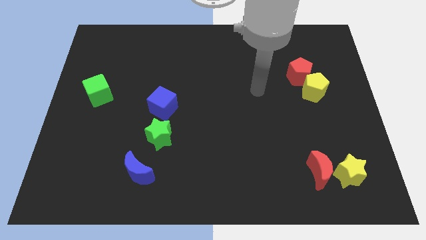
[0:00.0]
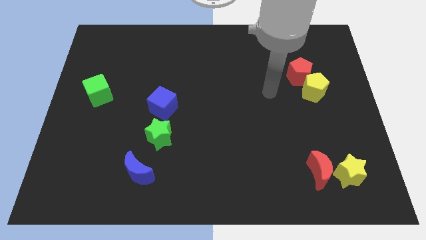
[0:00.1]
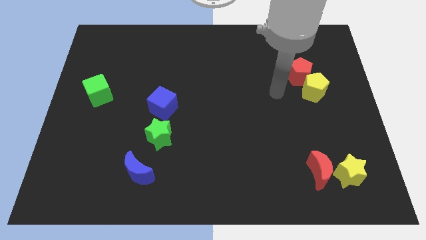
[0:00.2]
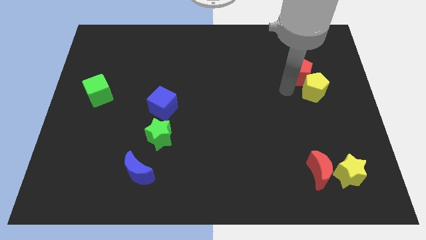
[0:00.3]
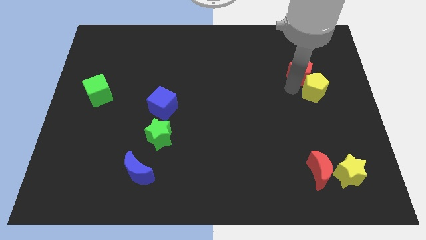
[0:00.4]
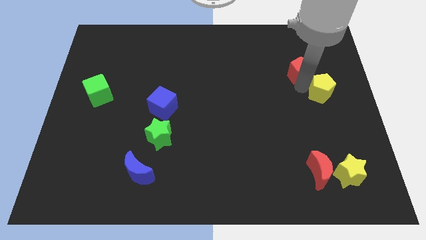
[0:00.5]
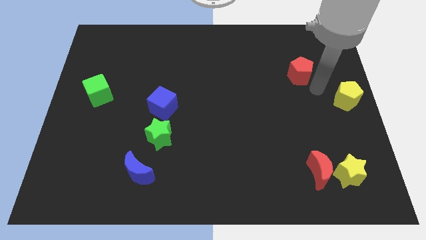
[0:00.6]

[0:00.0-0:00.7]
move the red pentagon away from the yellow pentagon

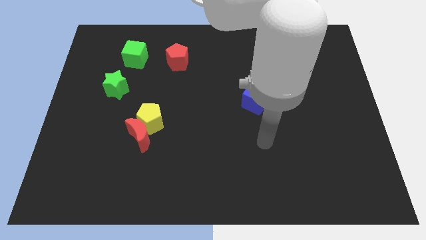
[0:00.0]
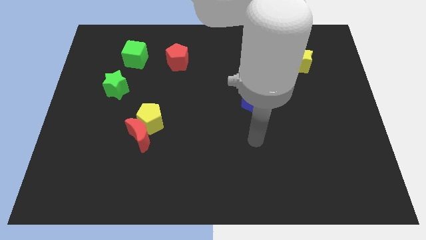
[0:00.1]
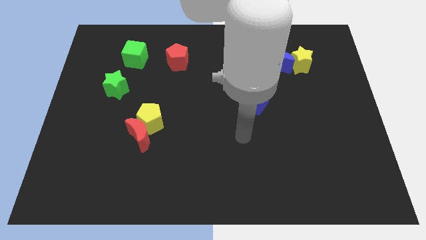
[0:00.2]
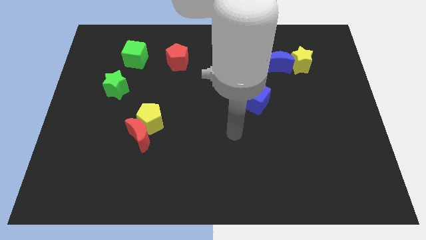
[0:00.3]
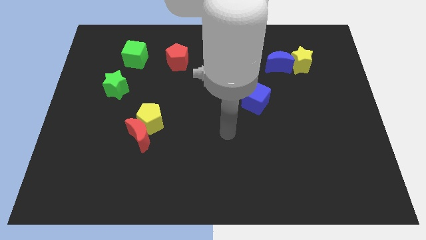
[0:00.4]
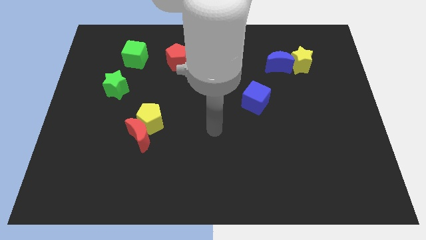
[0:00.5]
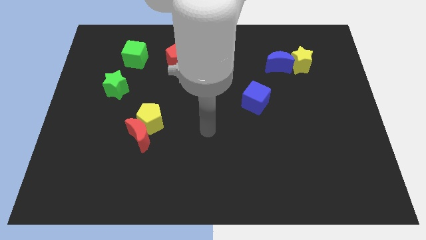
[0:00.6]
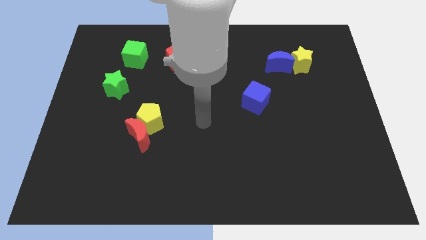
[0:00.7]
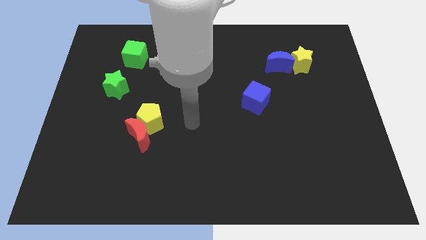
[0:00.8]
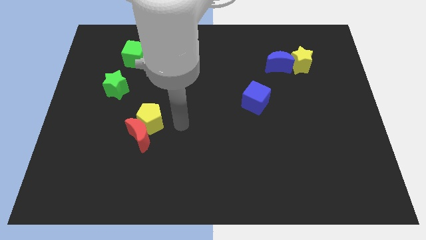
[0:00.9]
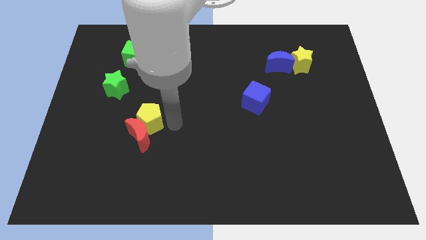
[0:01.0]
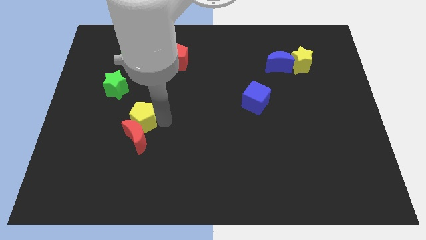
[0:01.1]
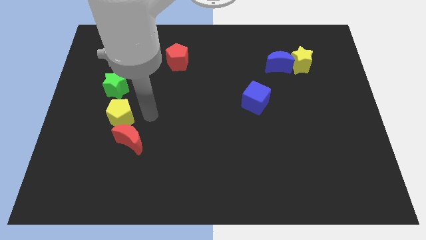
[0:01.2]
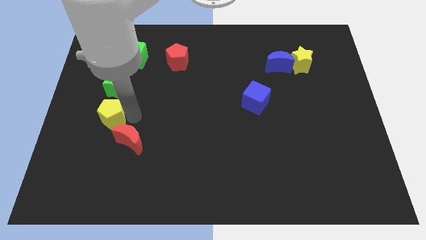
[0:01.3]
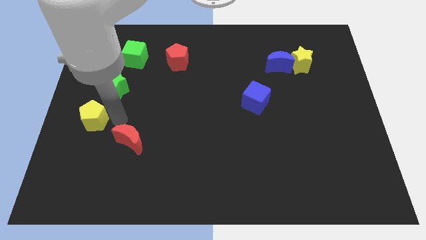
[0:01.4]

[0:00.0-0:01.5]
pull the red moon apart from the yellow pentagon

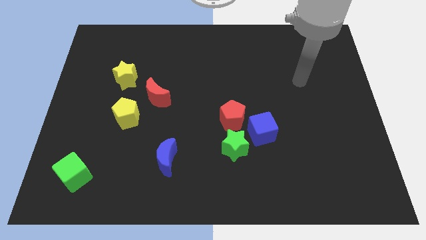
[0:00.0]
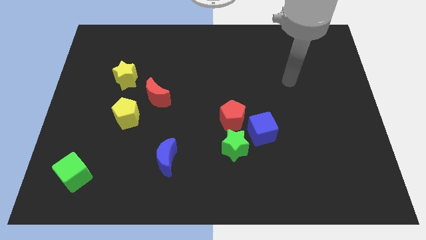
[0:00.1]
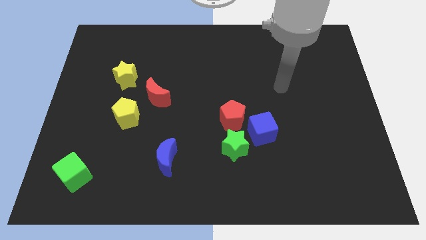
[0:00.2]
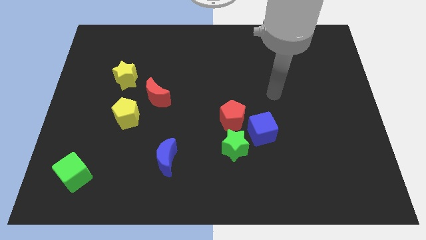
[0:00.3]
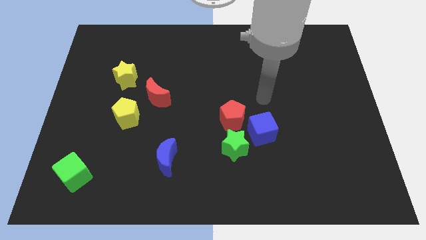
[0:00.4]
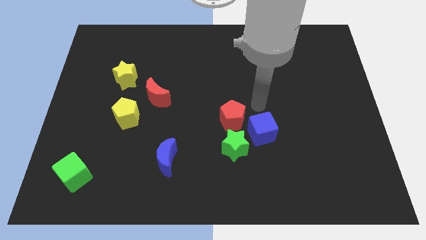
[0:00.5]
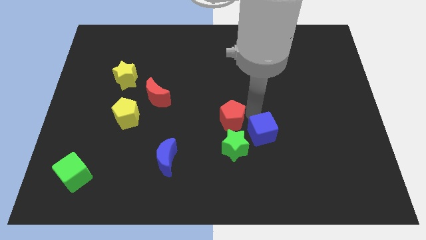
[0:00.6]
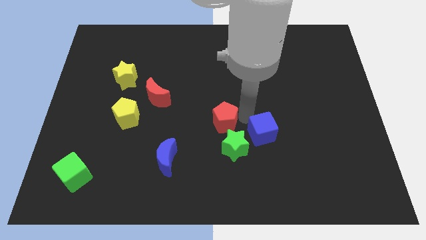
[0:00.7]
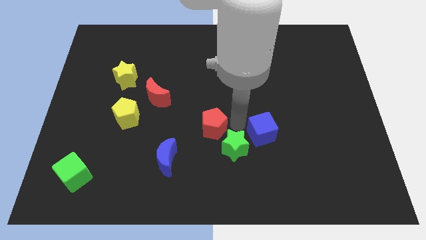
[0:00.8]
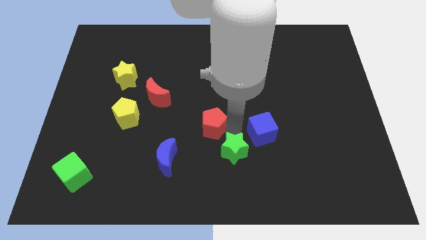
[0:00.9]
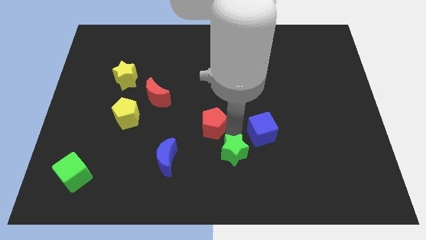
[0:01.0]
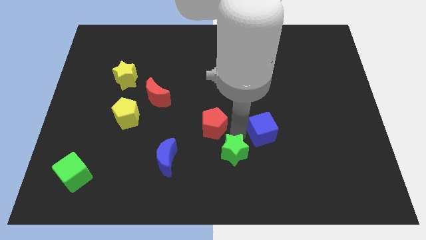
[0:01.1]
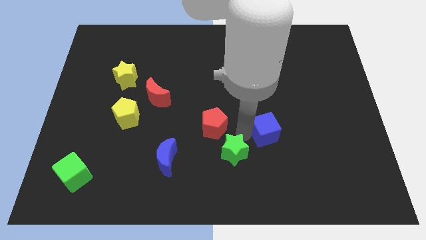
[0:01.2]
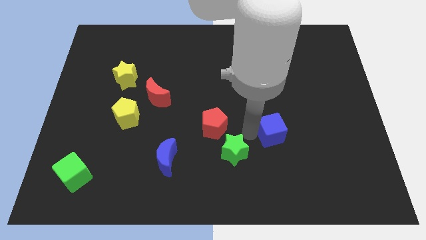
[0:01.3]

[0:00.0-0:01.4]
pull the blue cube apart from the green star and red pentagon

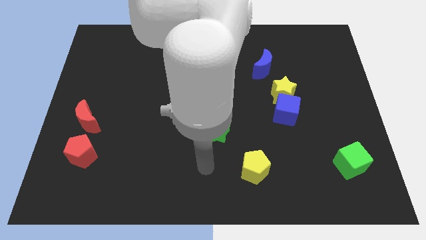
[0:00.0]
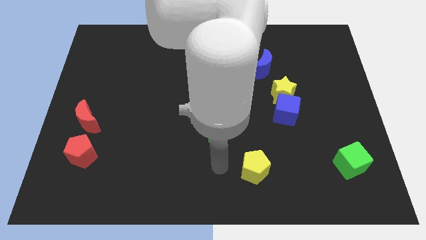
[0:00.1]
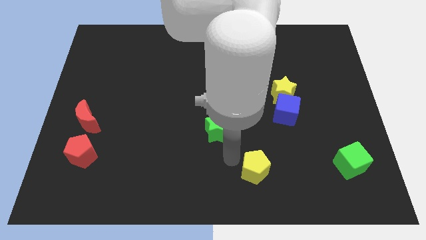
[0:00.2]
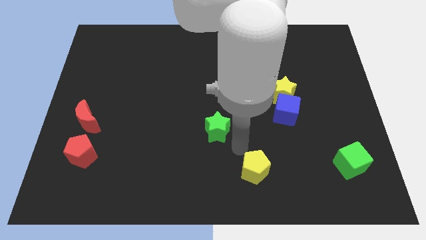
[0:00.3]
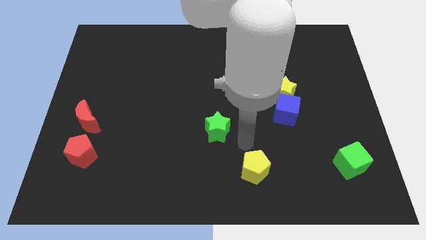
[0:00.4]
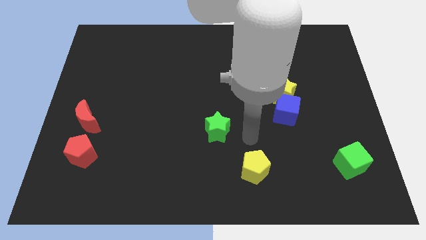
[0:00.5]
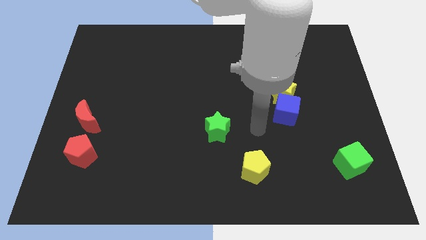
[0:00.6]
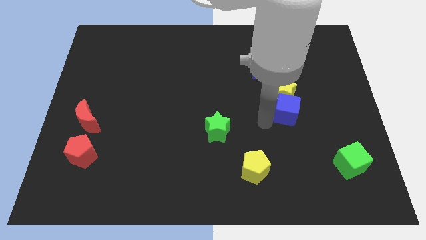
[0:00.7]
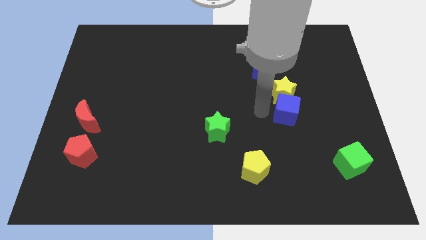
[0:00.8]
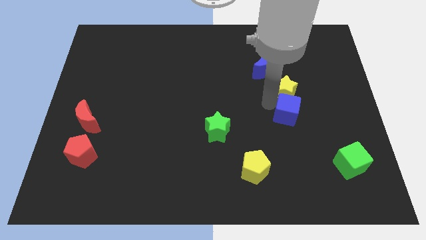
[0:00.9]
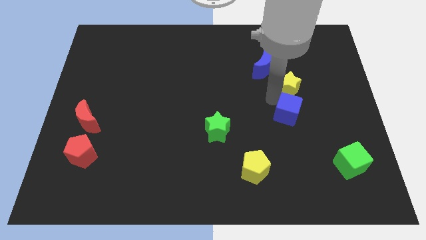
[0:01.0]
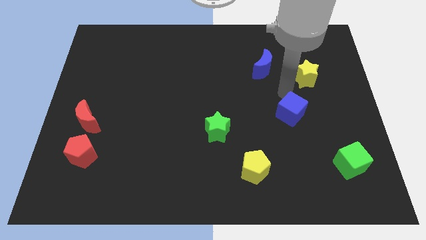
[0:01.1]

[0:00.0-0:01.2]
separate the blue cube from the yellow star

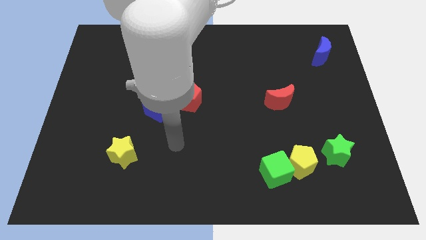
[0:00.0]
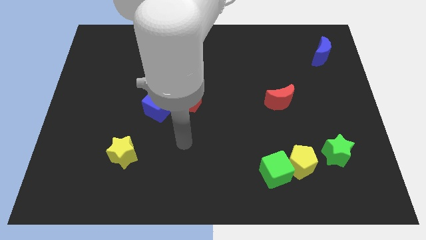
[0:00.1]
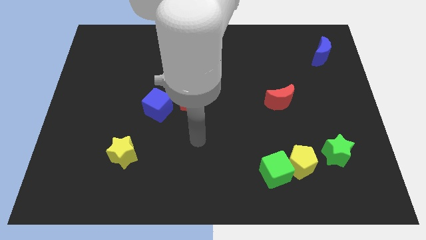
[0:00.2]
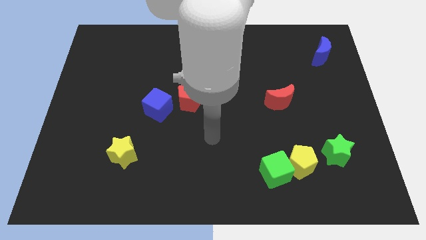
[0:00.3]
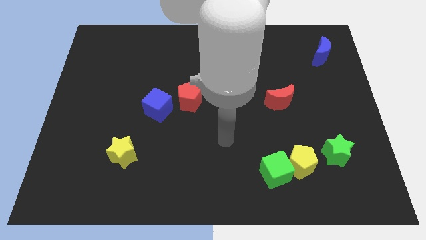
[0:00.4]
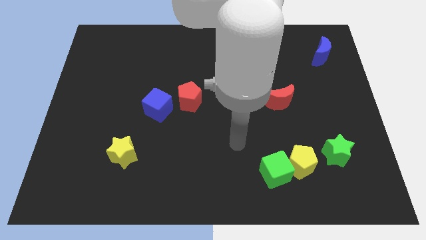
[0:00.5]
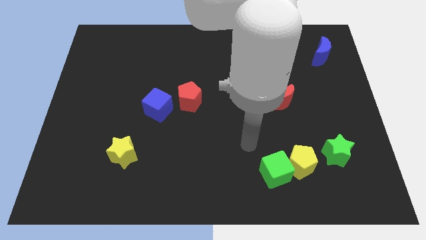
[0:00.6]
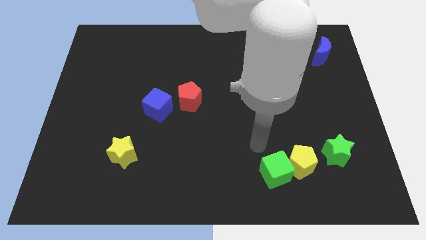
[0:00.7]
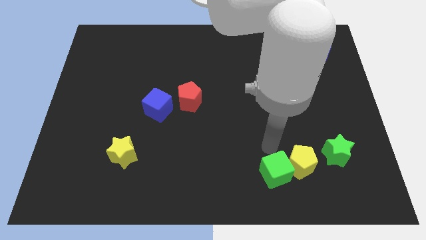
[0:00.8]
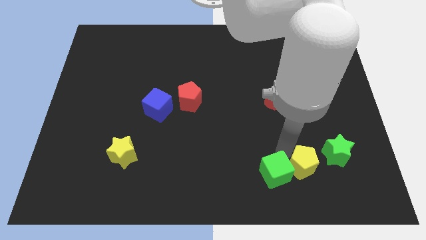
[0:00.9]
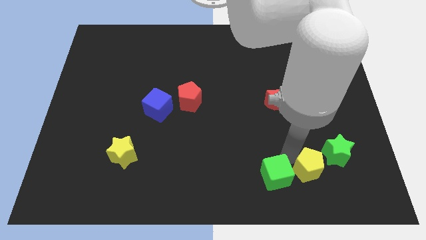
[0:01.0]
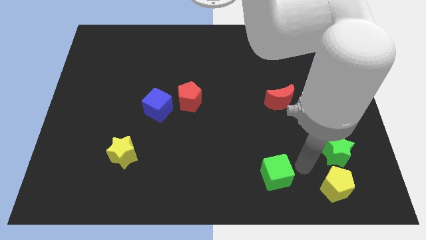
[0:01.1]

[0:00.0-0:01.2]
pull the green cube apart from the yellow pentagon

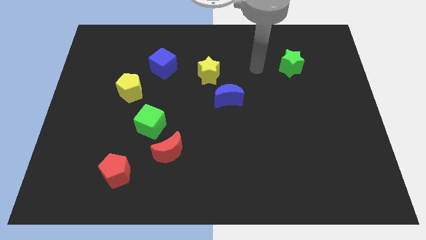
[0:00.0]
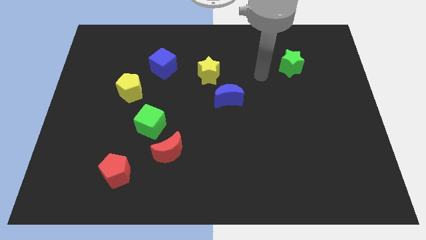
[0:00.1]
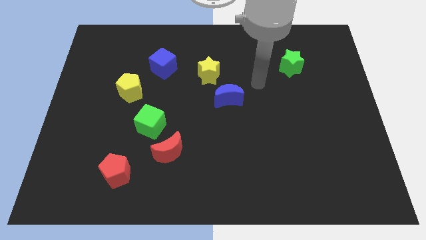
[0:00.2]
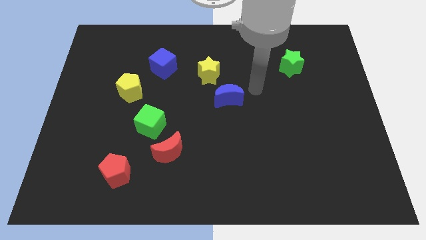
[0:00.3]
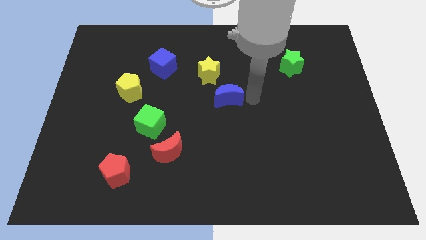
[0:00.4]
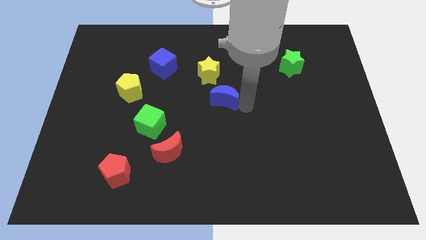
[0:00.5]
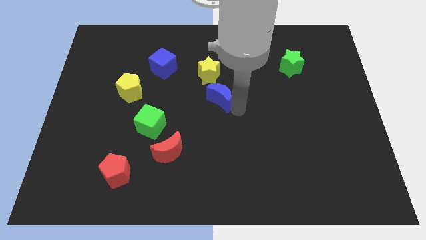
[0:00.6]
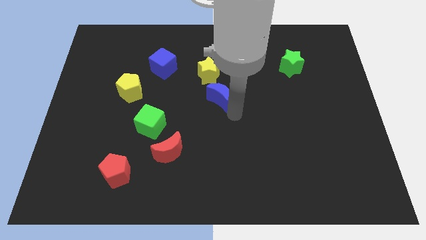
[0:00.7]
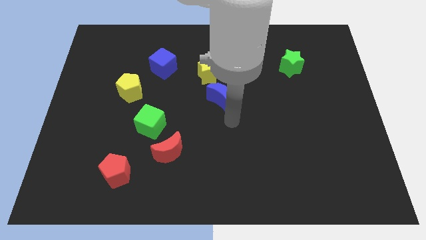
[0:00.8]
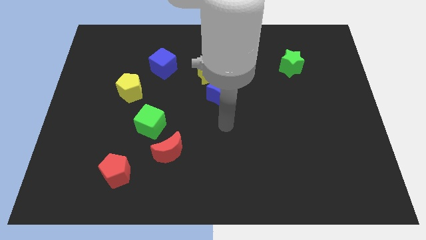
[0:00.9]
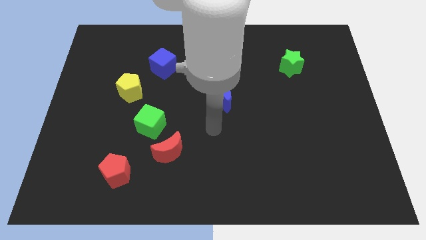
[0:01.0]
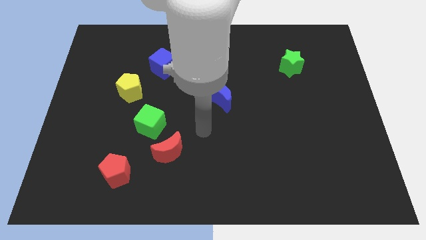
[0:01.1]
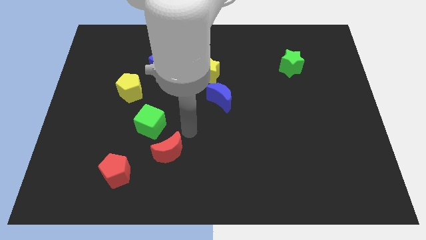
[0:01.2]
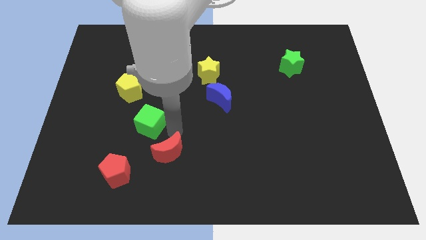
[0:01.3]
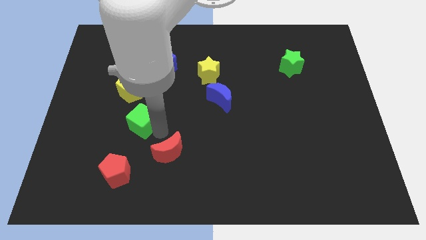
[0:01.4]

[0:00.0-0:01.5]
move the red moon away from the green cube

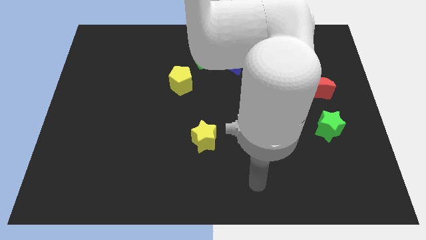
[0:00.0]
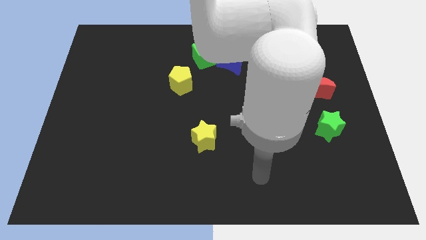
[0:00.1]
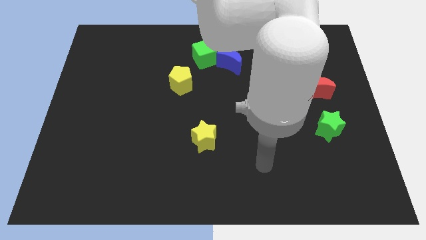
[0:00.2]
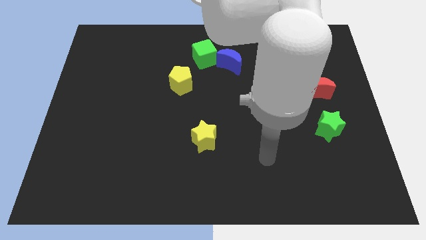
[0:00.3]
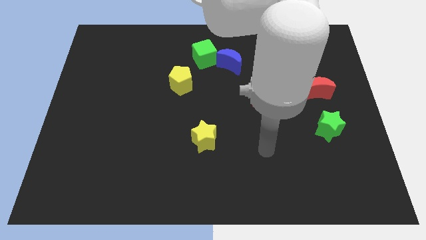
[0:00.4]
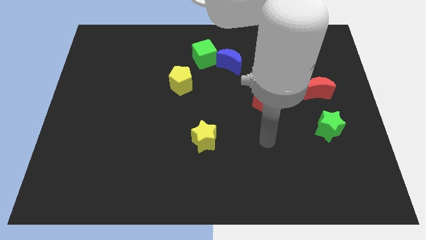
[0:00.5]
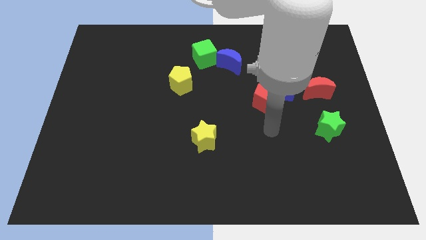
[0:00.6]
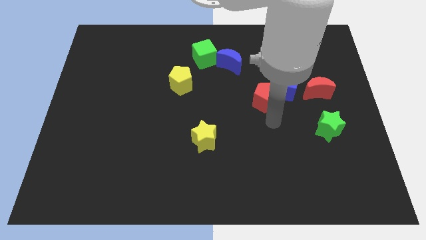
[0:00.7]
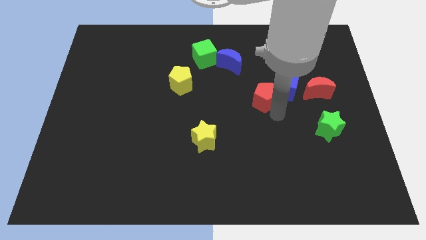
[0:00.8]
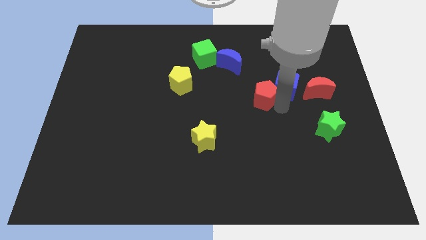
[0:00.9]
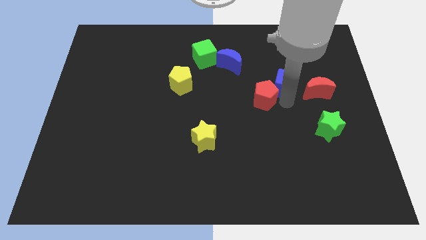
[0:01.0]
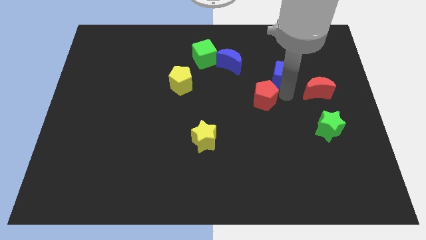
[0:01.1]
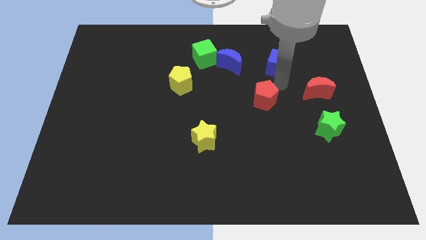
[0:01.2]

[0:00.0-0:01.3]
pull the red pentagon apart from the blue cube

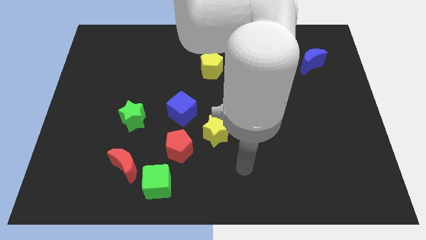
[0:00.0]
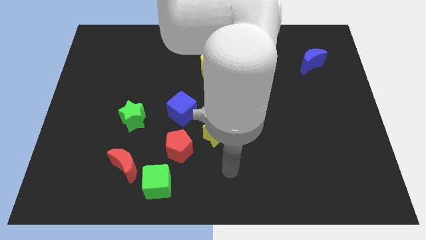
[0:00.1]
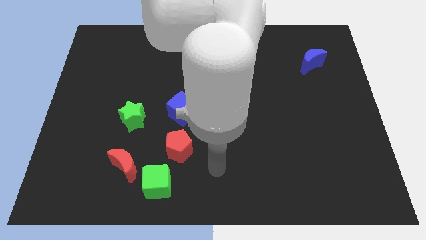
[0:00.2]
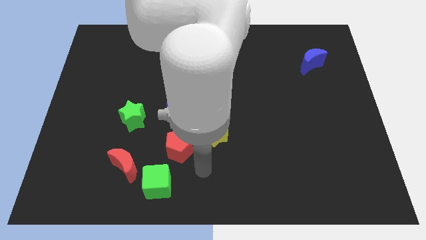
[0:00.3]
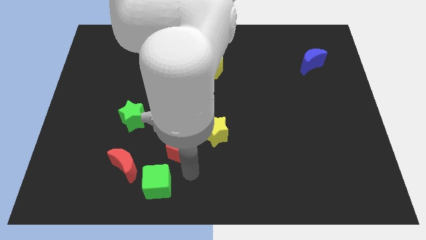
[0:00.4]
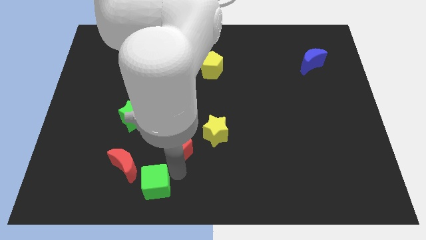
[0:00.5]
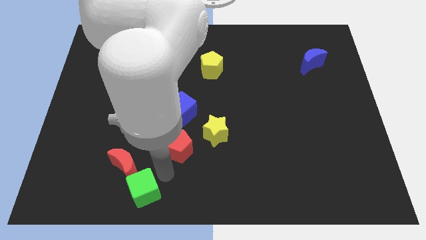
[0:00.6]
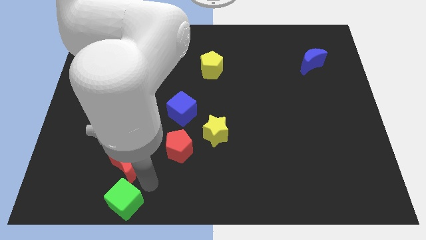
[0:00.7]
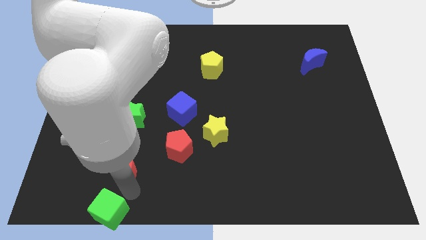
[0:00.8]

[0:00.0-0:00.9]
pull the red moon apart from the green cube
